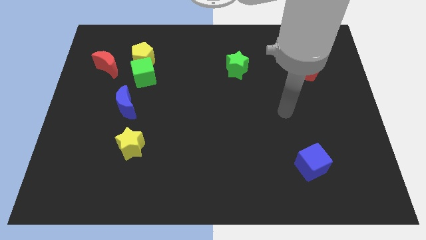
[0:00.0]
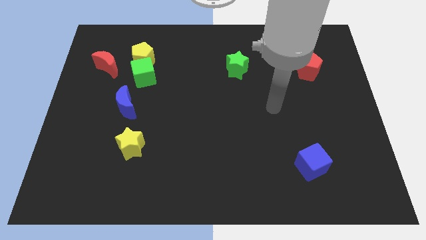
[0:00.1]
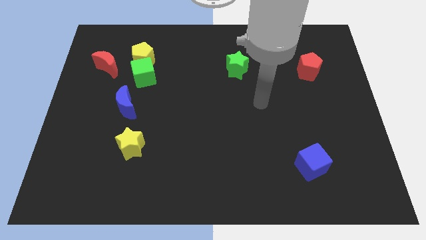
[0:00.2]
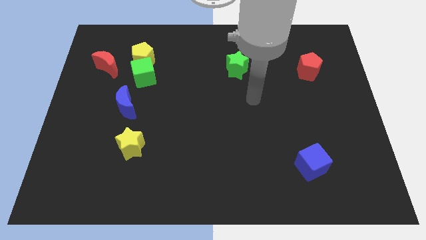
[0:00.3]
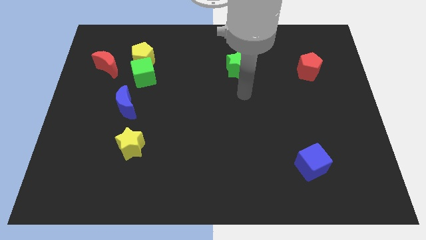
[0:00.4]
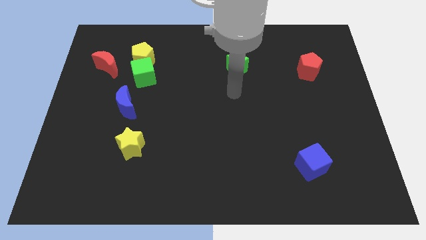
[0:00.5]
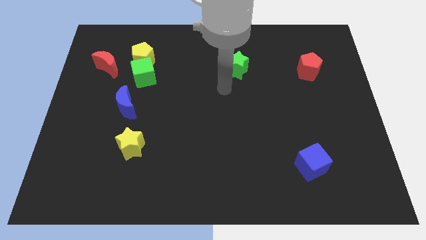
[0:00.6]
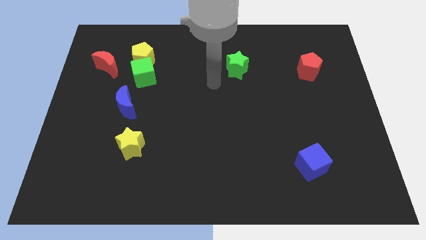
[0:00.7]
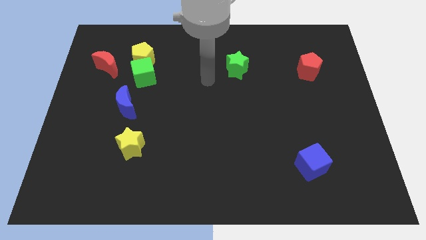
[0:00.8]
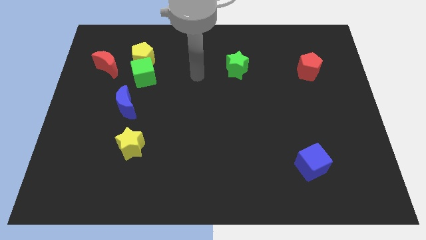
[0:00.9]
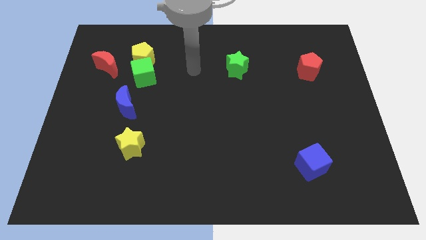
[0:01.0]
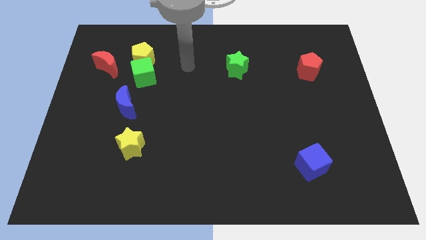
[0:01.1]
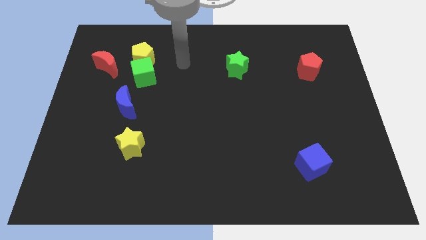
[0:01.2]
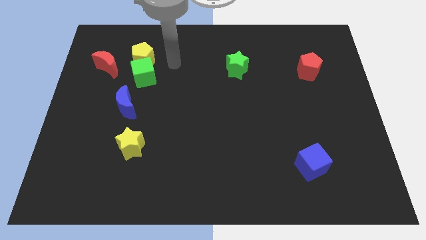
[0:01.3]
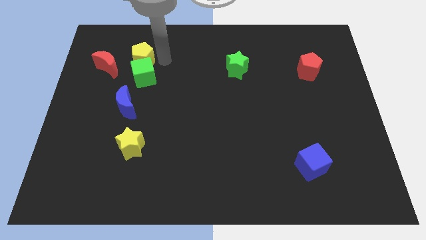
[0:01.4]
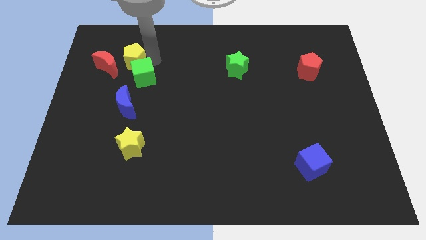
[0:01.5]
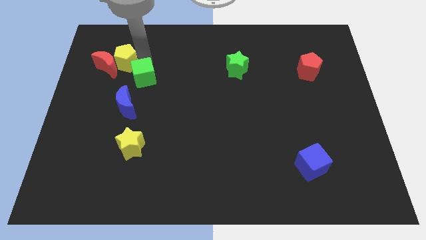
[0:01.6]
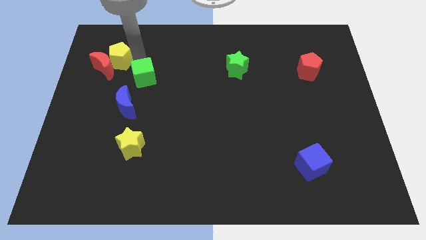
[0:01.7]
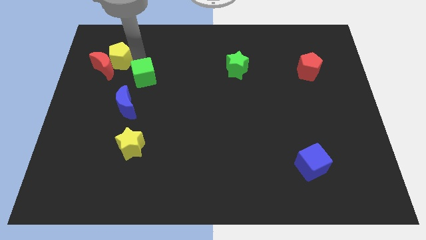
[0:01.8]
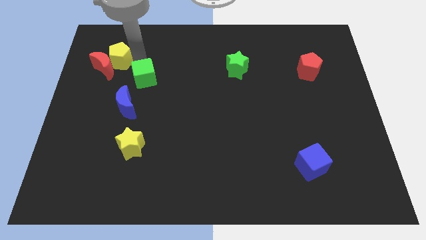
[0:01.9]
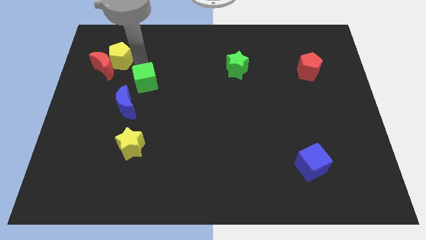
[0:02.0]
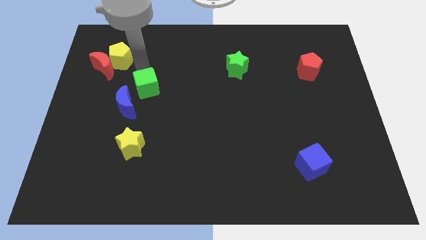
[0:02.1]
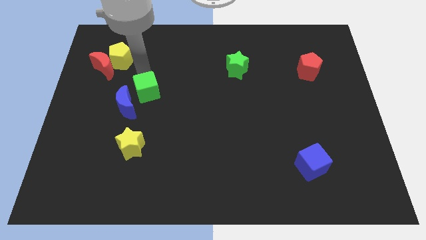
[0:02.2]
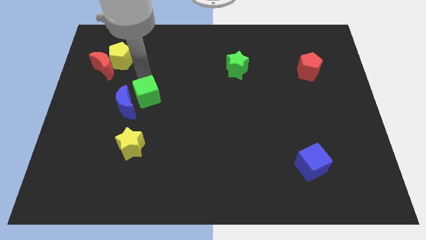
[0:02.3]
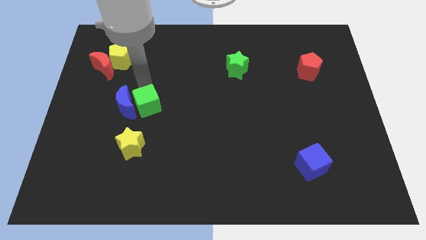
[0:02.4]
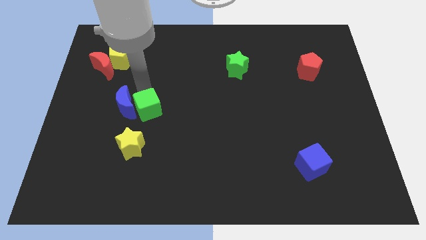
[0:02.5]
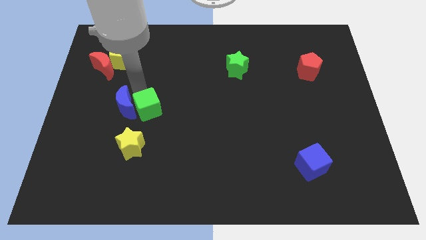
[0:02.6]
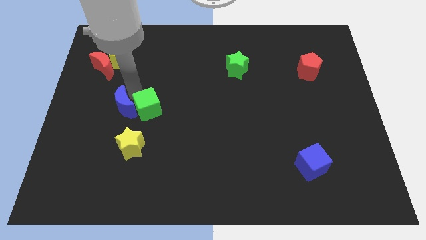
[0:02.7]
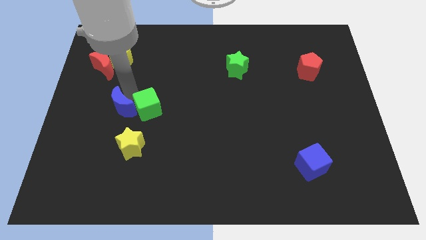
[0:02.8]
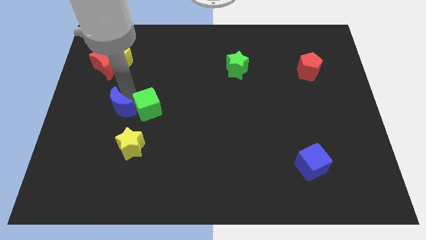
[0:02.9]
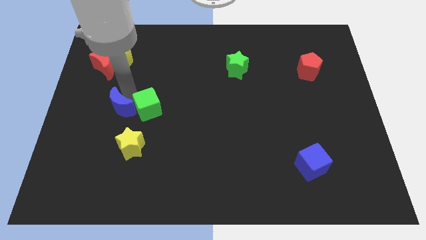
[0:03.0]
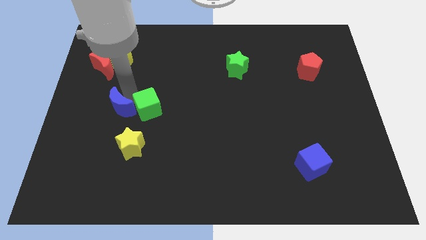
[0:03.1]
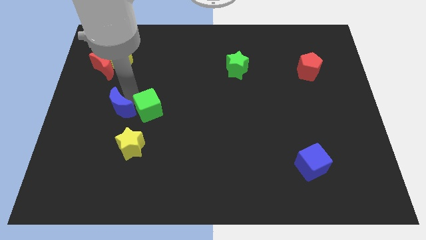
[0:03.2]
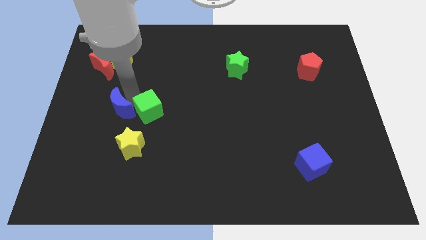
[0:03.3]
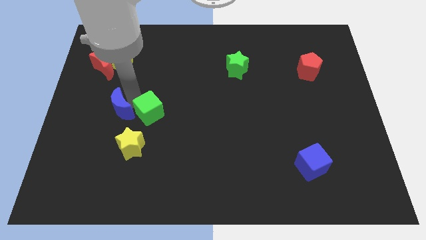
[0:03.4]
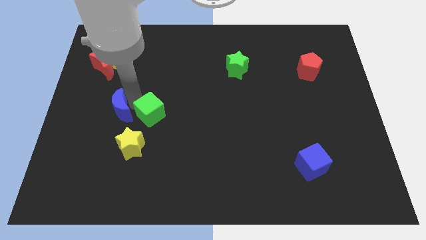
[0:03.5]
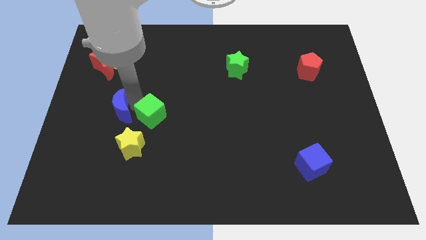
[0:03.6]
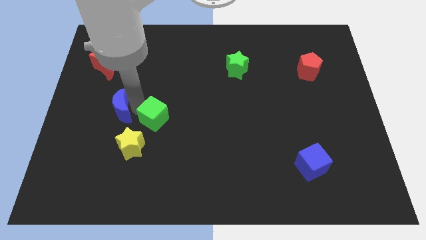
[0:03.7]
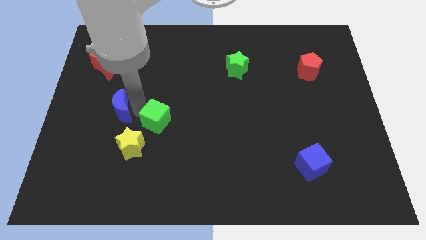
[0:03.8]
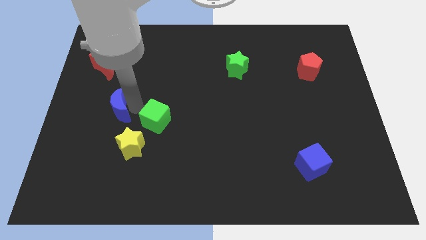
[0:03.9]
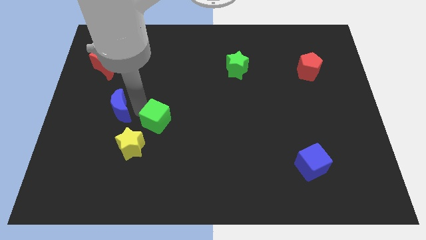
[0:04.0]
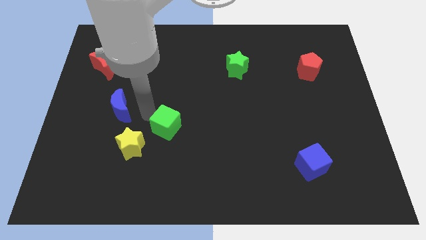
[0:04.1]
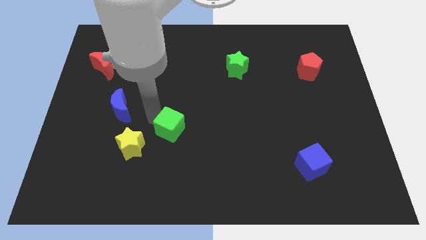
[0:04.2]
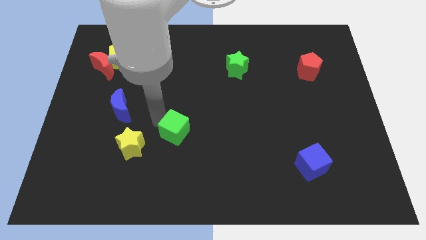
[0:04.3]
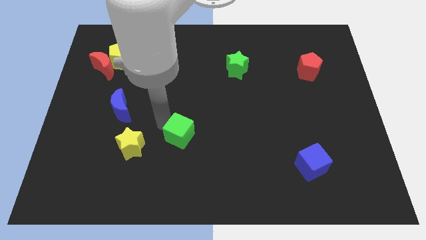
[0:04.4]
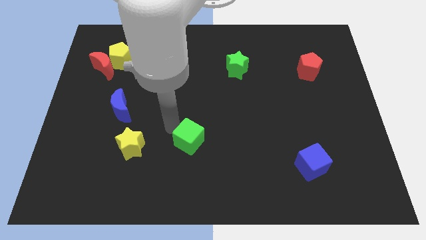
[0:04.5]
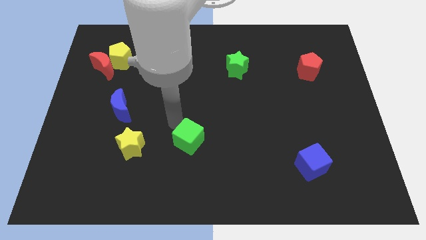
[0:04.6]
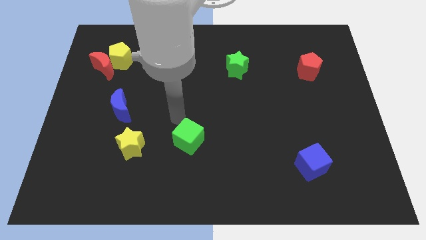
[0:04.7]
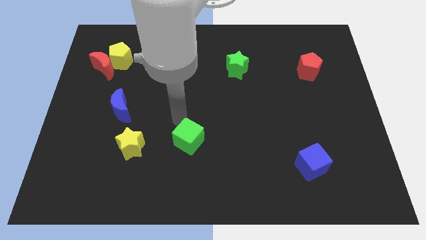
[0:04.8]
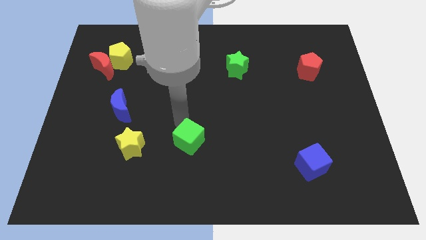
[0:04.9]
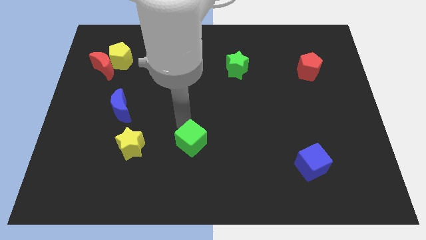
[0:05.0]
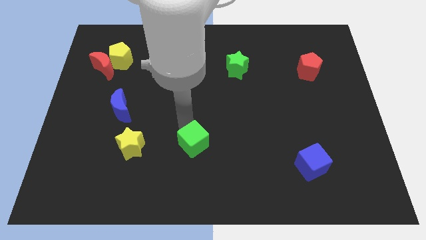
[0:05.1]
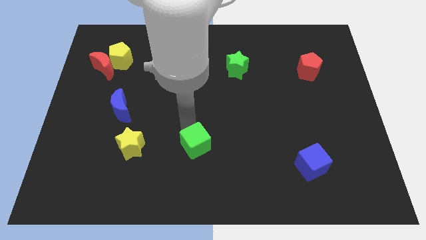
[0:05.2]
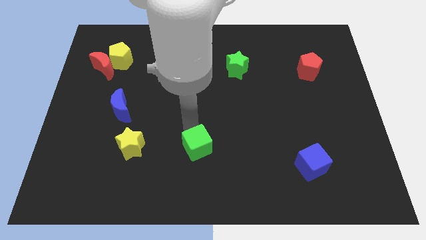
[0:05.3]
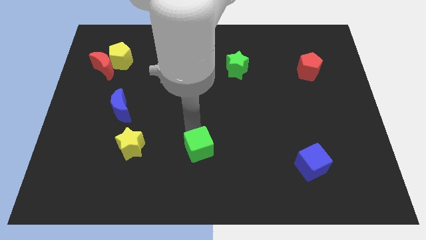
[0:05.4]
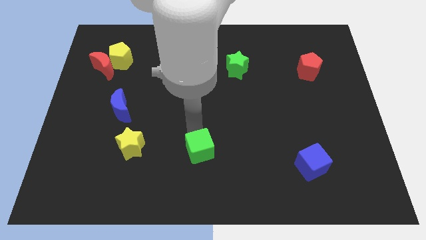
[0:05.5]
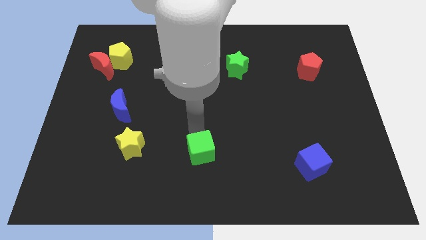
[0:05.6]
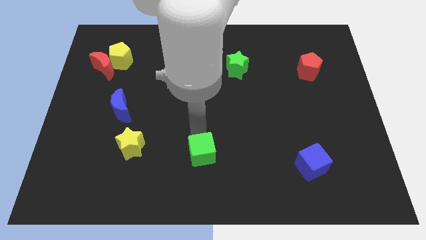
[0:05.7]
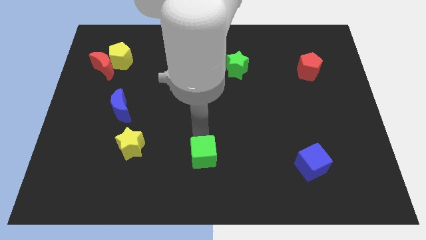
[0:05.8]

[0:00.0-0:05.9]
slide the green cube to the bottom side
